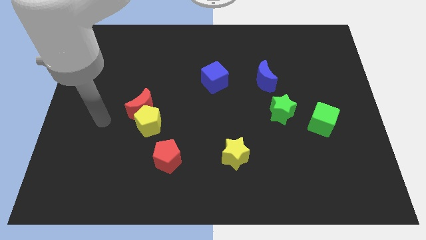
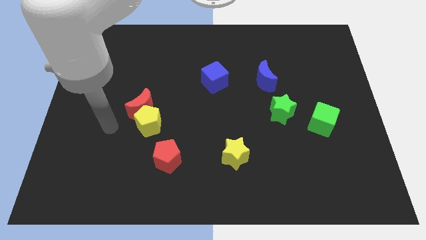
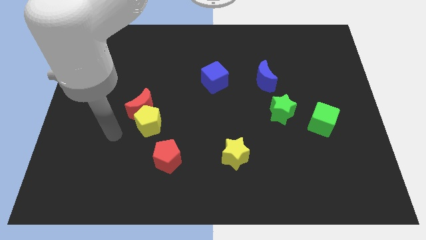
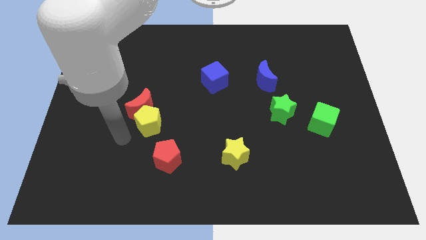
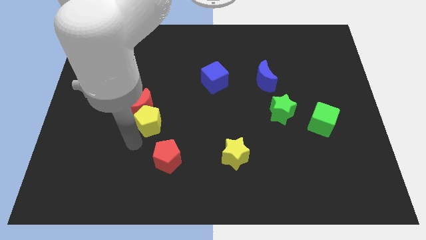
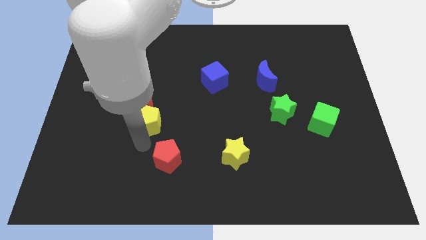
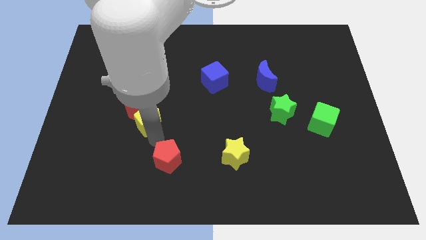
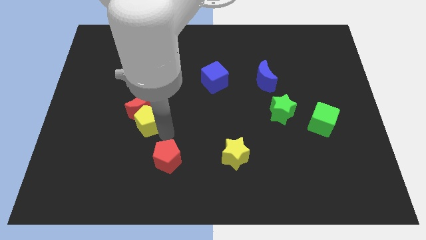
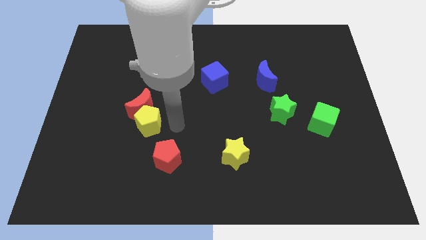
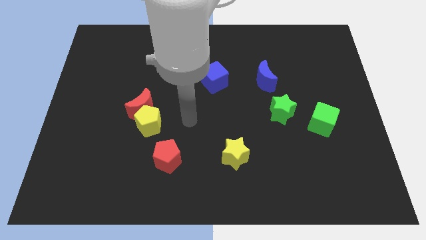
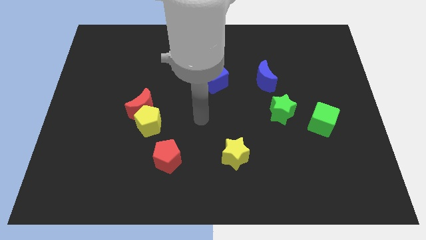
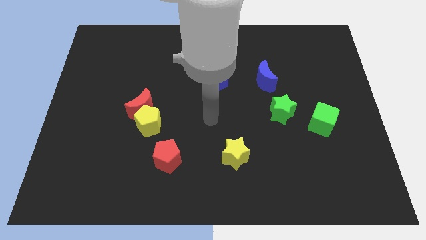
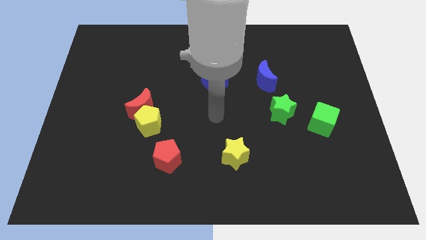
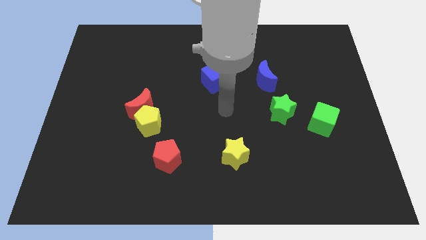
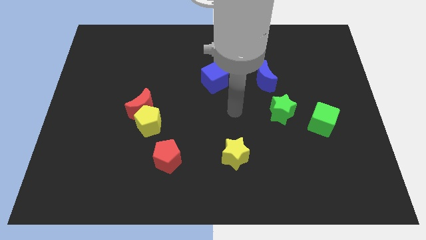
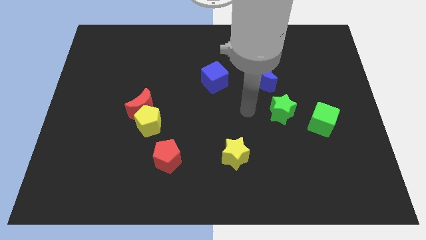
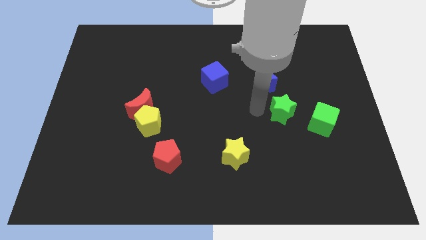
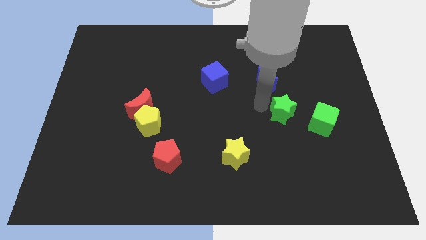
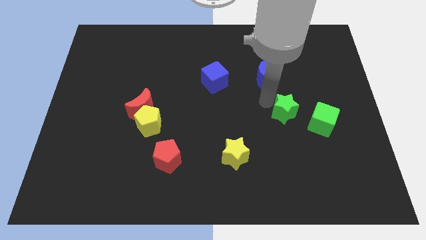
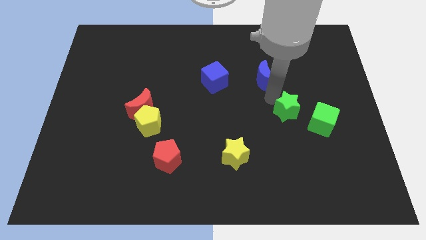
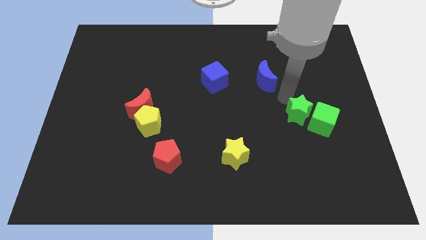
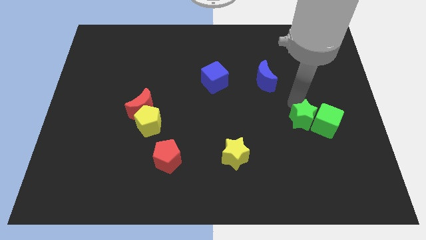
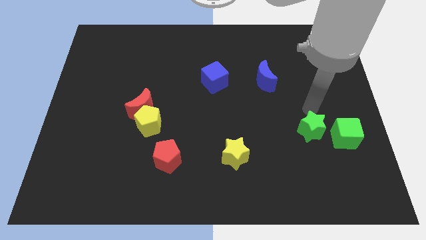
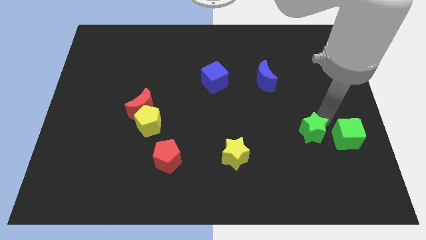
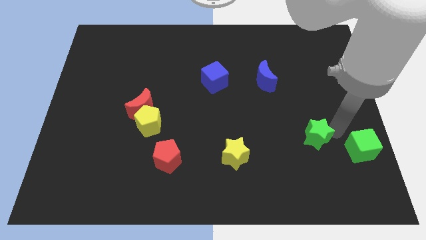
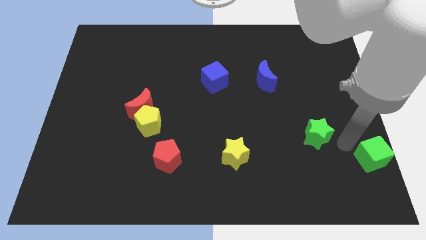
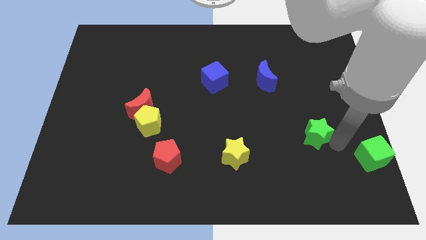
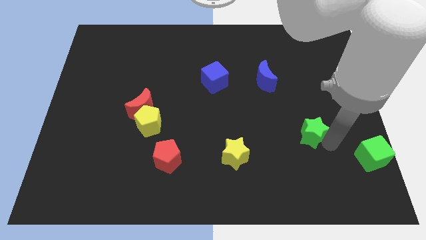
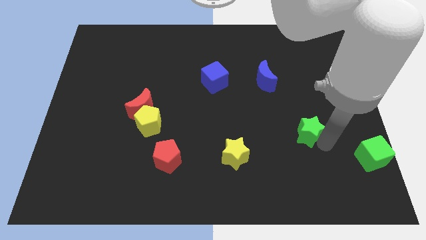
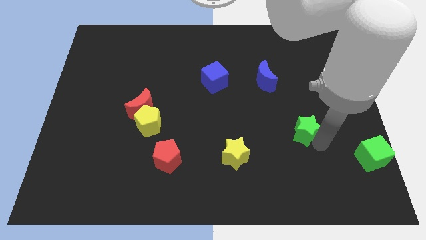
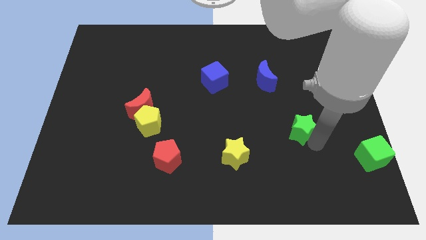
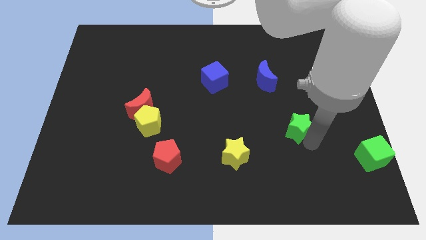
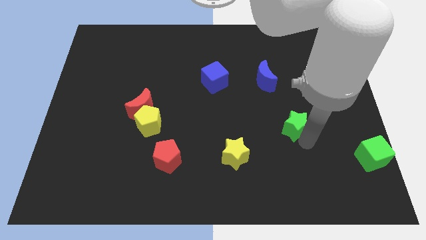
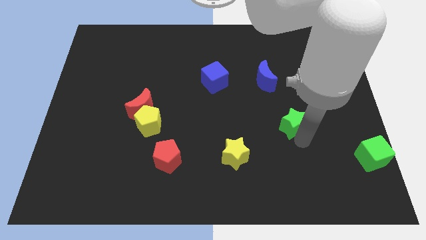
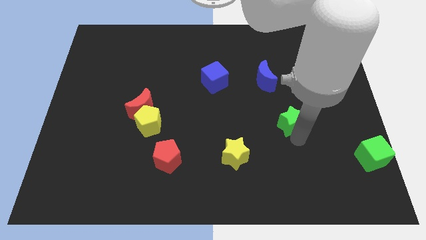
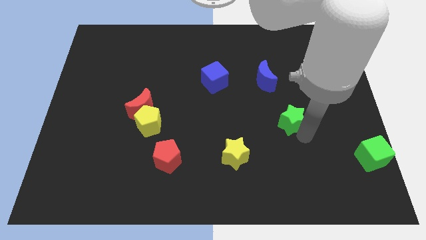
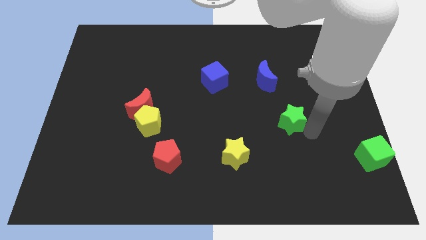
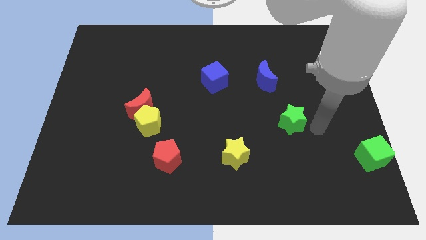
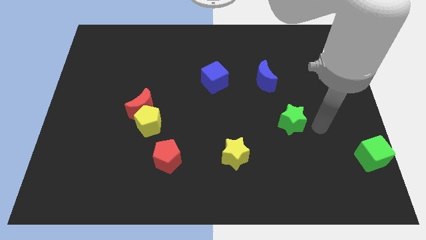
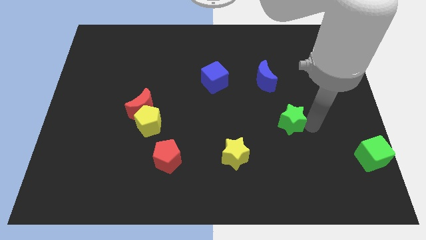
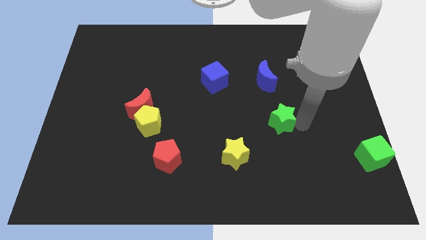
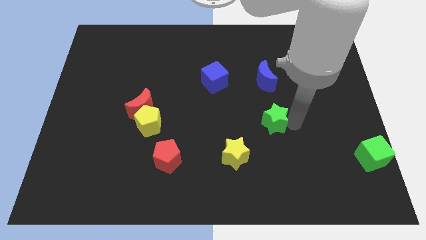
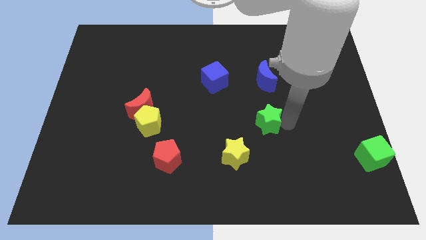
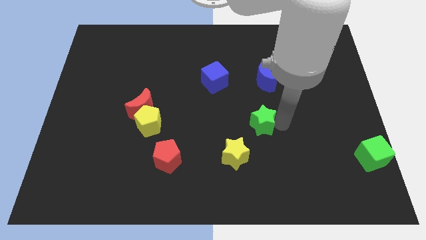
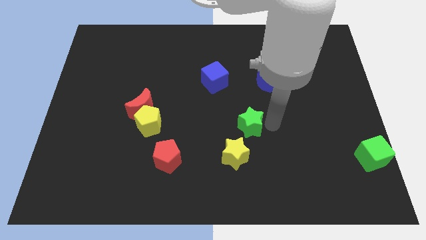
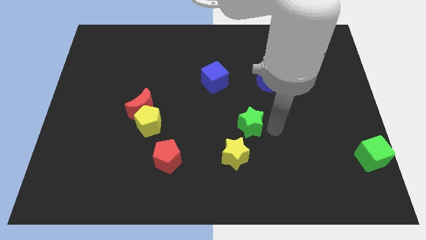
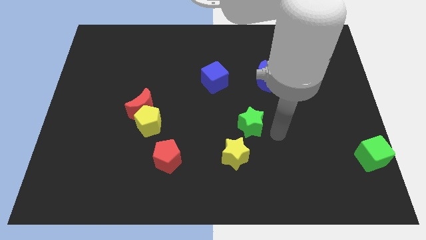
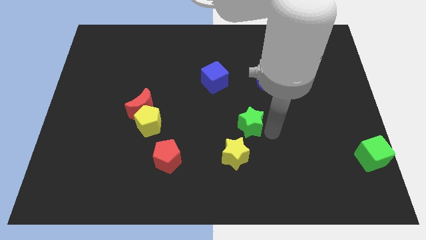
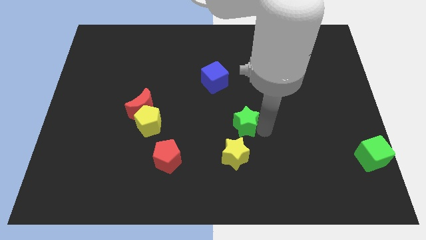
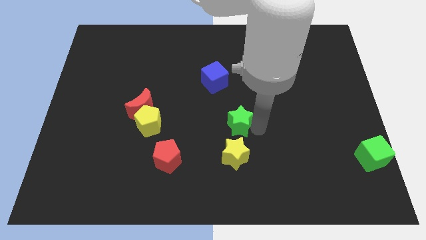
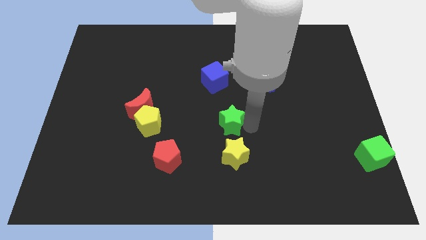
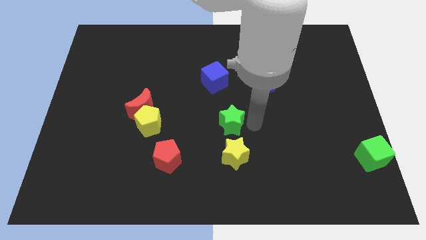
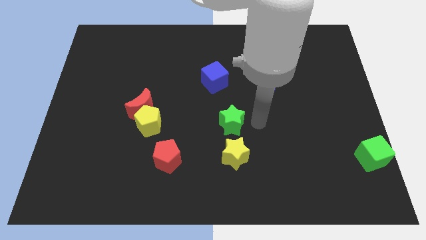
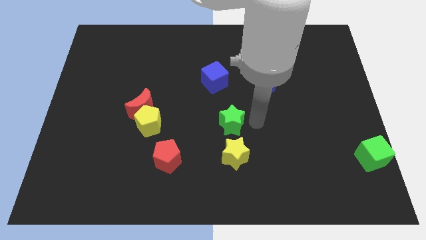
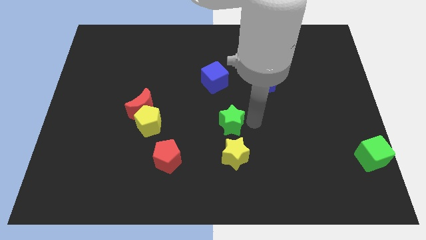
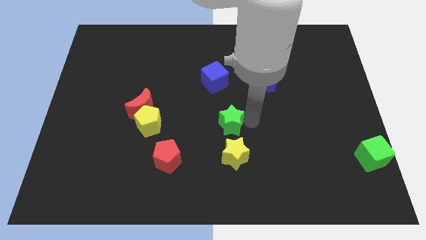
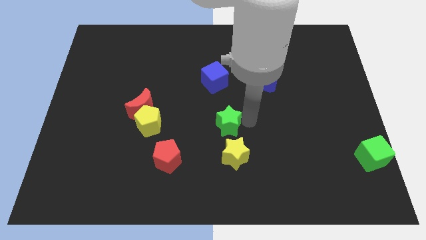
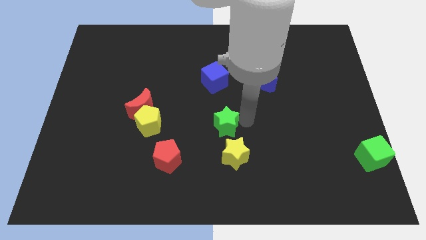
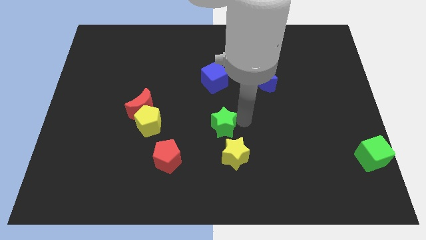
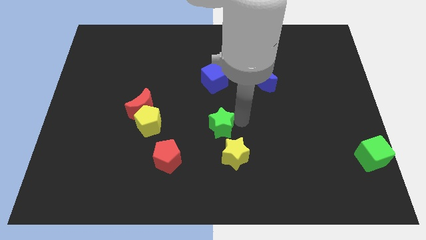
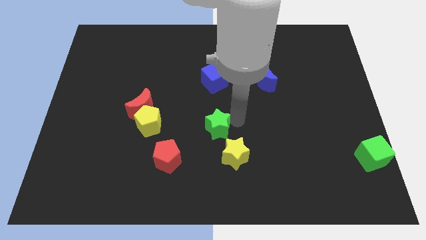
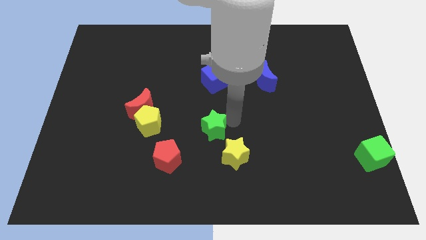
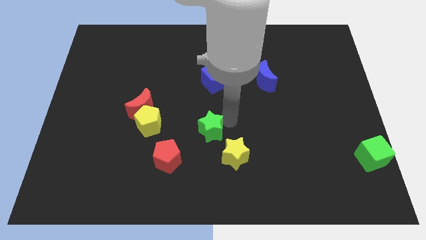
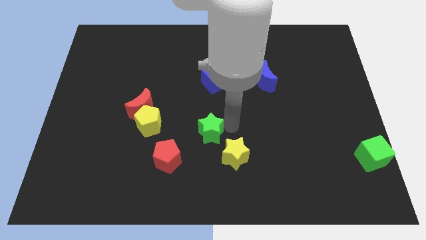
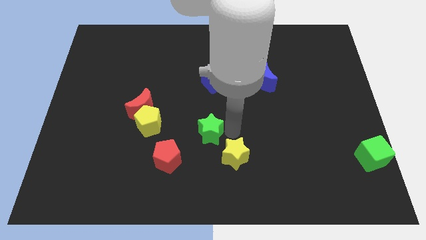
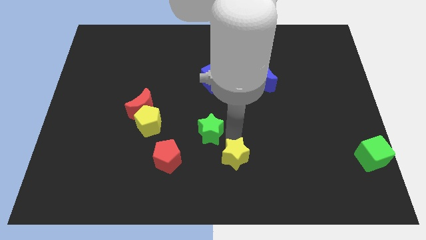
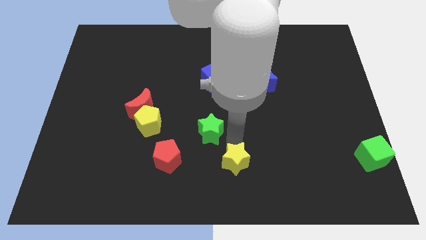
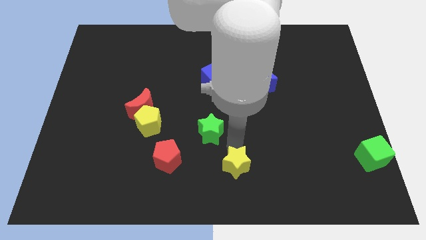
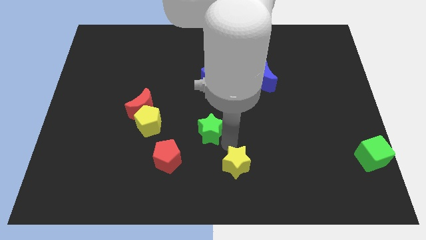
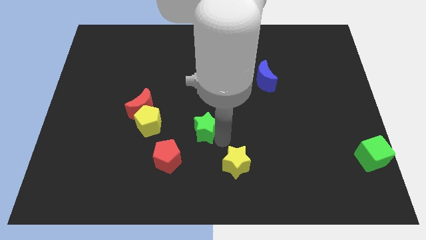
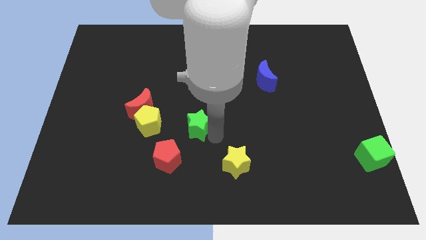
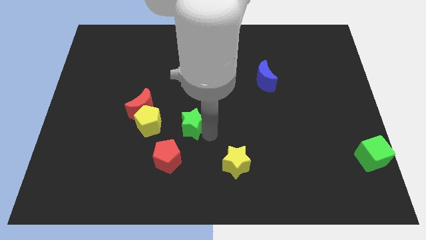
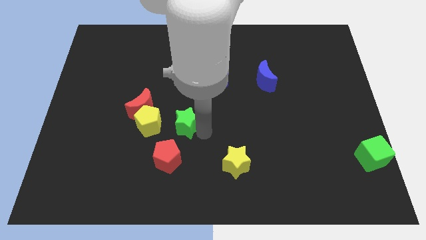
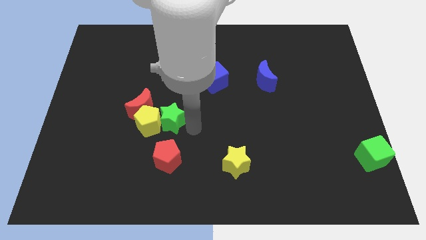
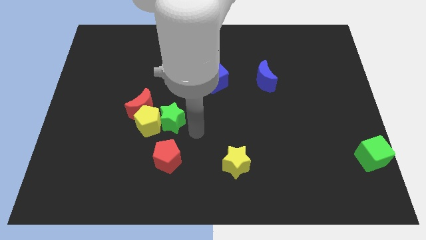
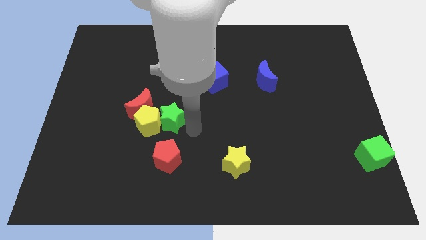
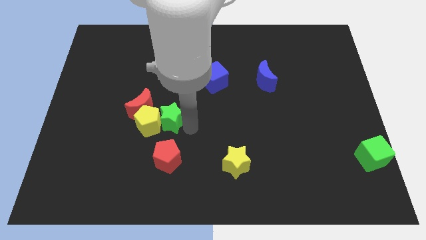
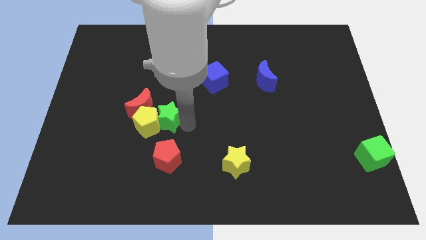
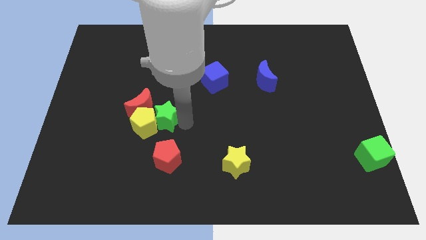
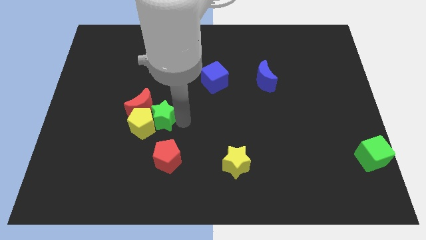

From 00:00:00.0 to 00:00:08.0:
push the green star towards the red moon
